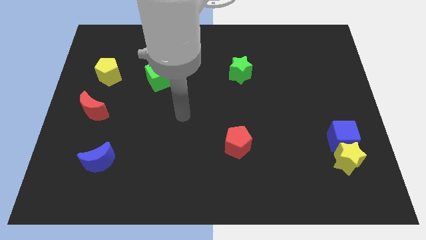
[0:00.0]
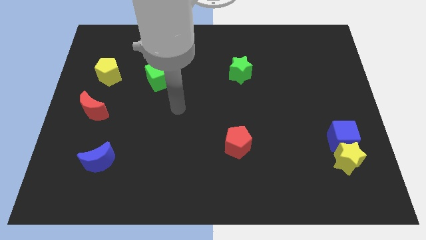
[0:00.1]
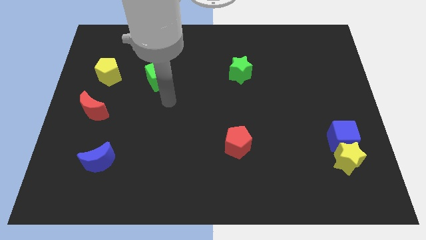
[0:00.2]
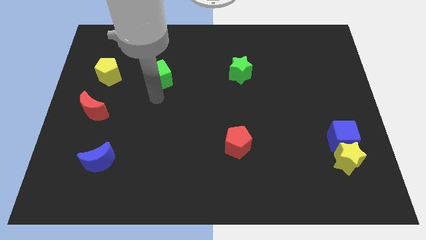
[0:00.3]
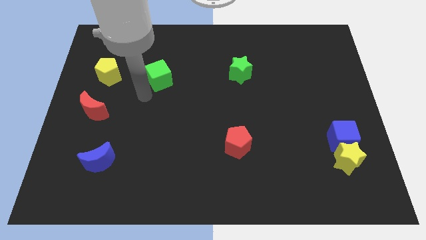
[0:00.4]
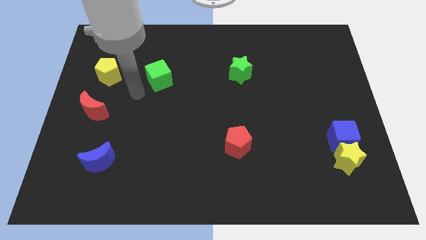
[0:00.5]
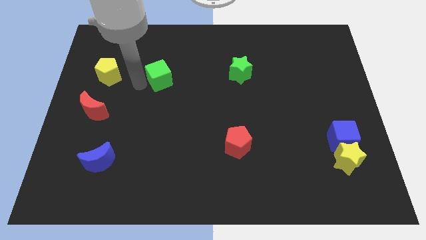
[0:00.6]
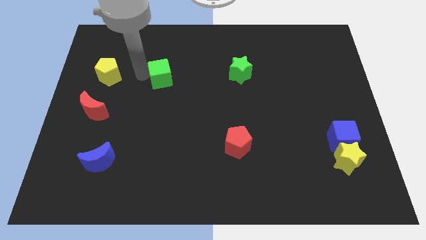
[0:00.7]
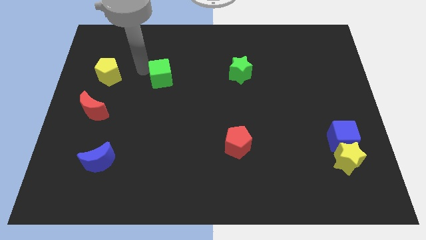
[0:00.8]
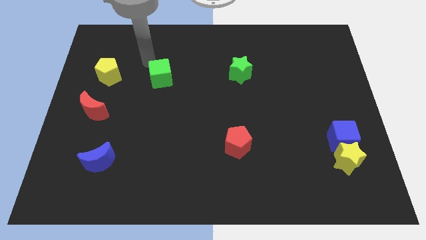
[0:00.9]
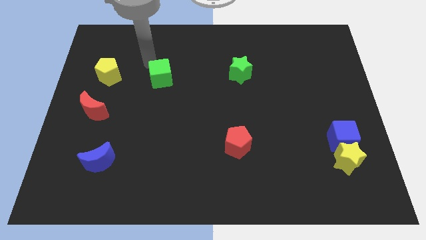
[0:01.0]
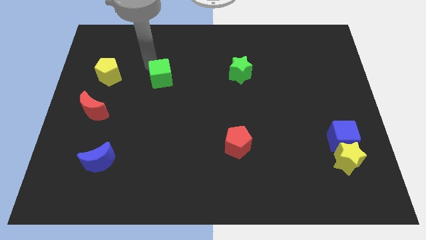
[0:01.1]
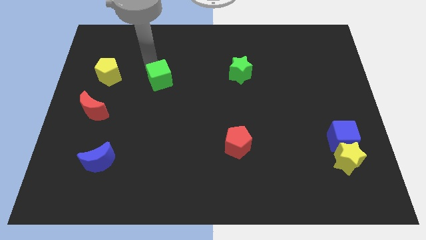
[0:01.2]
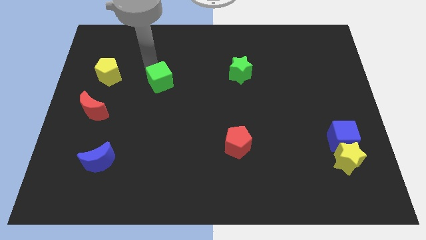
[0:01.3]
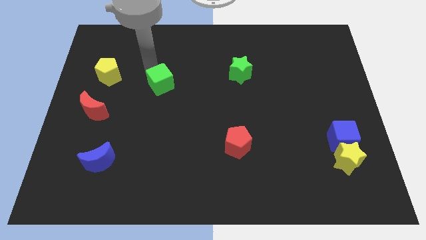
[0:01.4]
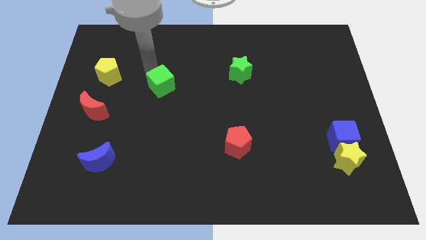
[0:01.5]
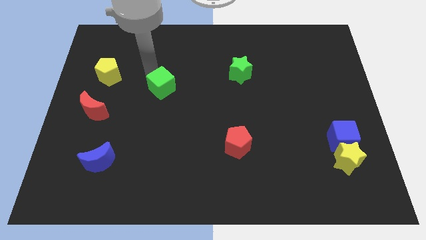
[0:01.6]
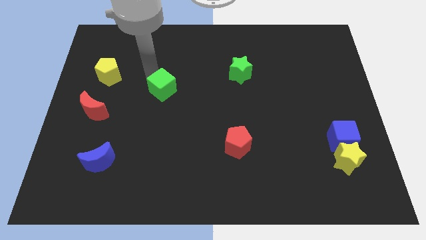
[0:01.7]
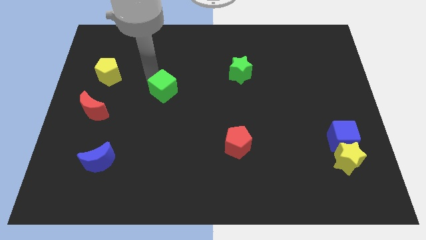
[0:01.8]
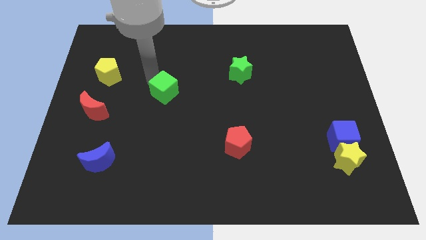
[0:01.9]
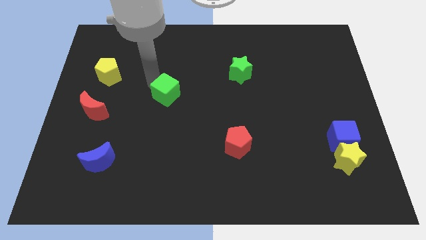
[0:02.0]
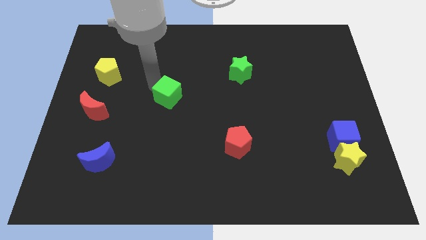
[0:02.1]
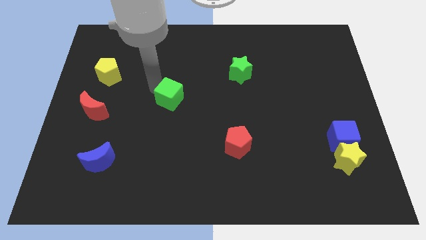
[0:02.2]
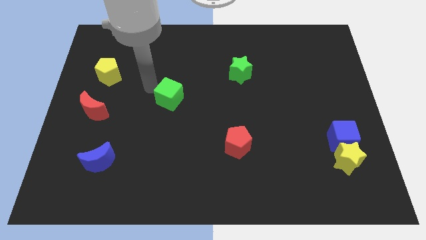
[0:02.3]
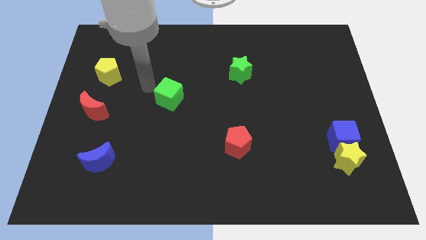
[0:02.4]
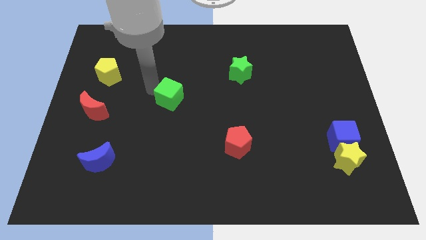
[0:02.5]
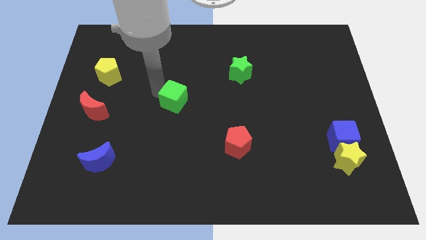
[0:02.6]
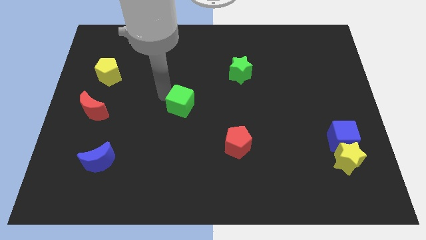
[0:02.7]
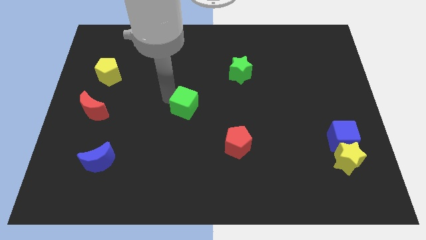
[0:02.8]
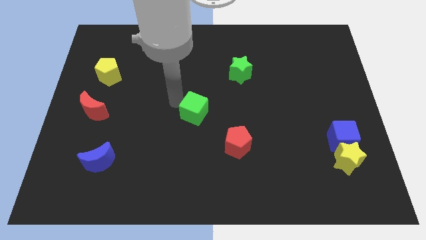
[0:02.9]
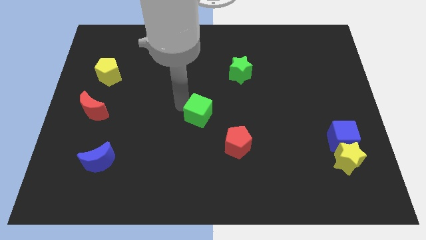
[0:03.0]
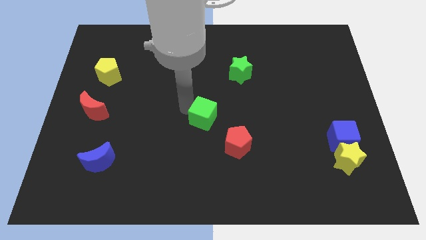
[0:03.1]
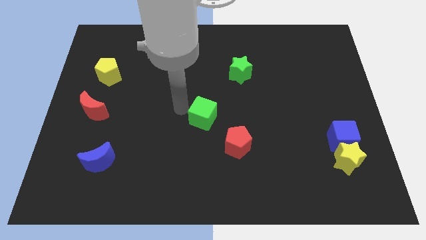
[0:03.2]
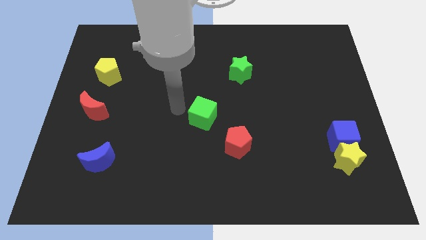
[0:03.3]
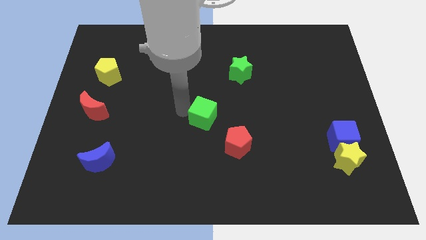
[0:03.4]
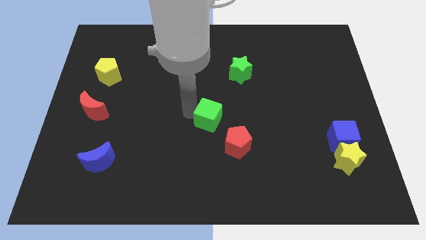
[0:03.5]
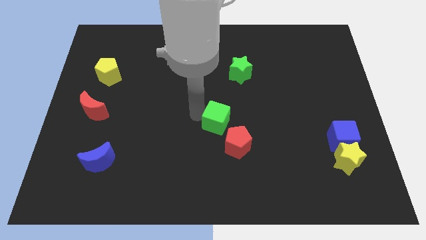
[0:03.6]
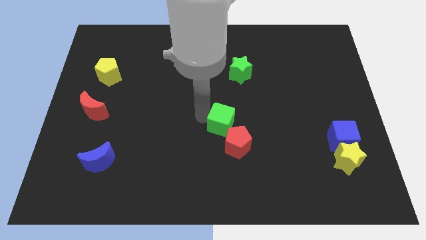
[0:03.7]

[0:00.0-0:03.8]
push the green cube down and right

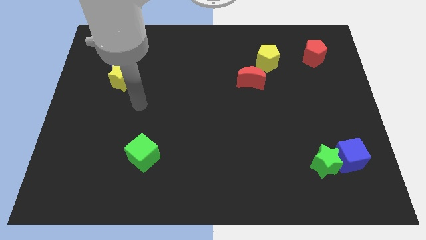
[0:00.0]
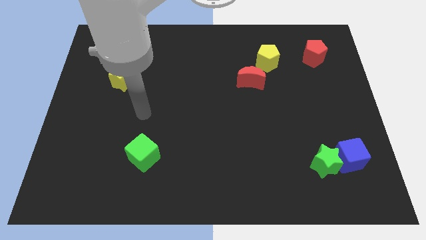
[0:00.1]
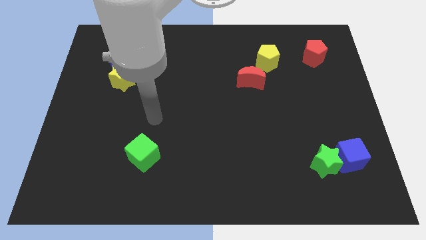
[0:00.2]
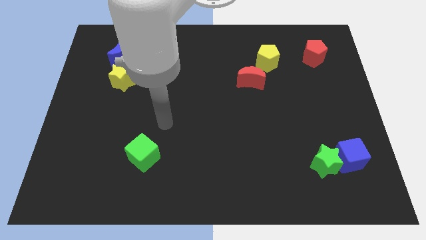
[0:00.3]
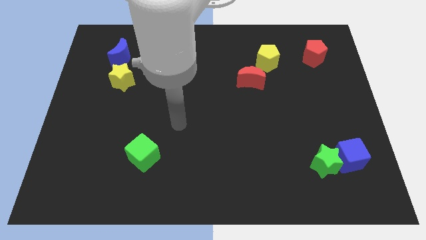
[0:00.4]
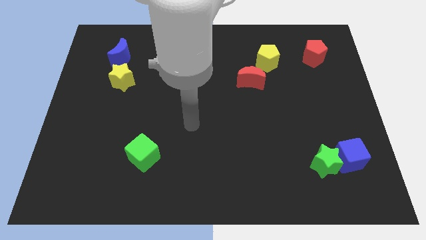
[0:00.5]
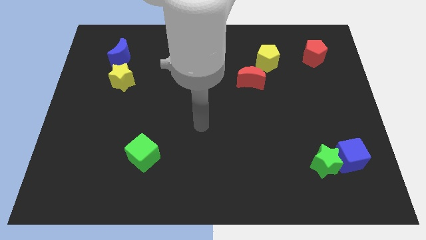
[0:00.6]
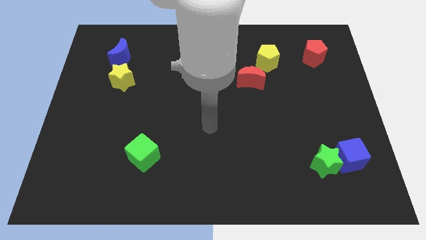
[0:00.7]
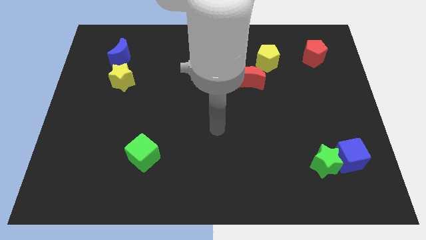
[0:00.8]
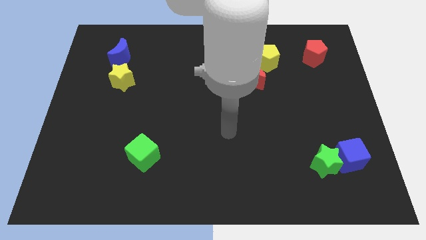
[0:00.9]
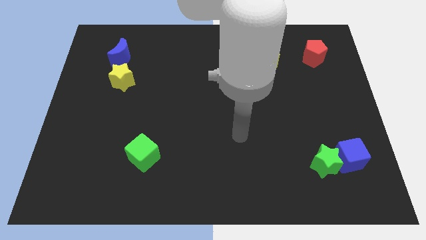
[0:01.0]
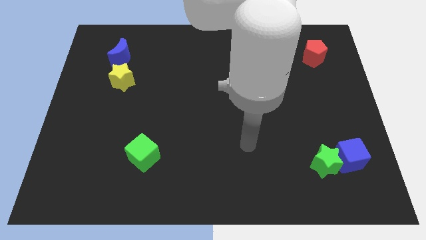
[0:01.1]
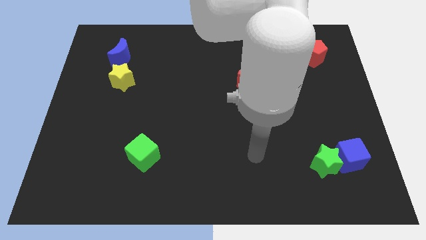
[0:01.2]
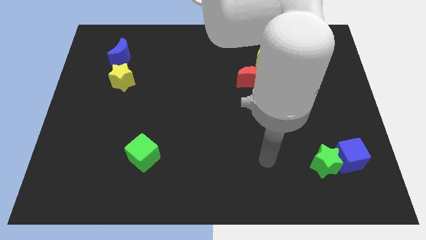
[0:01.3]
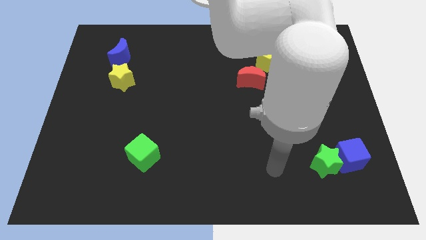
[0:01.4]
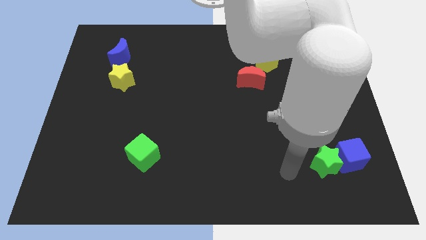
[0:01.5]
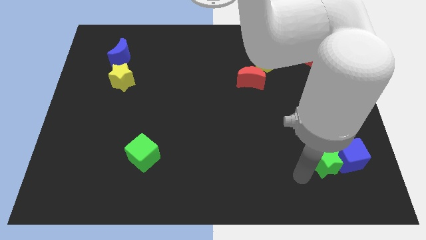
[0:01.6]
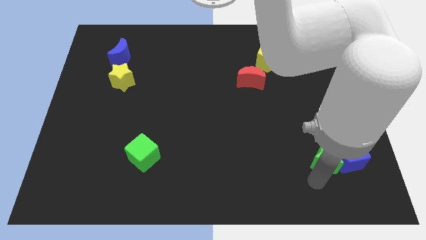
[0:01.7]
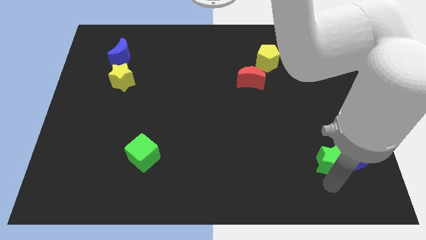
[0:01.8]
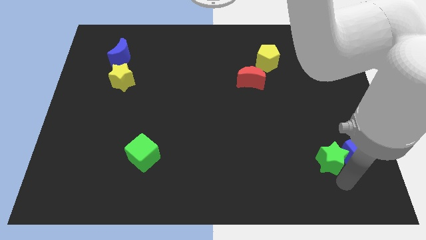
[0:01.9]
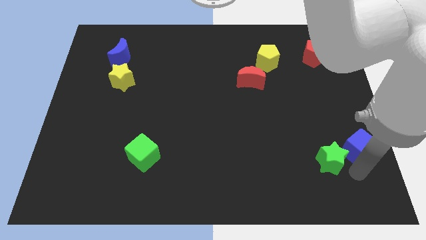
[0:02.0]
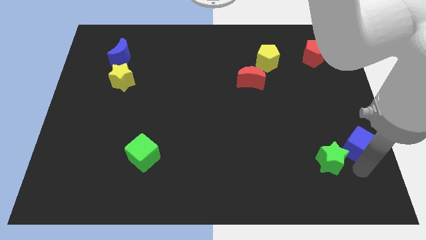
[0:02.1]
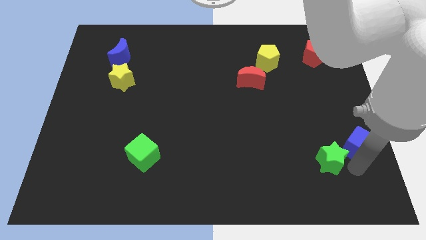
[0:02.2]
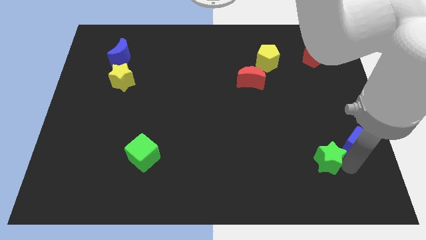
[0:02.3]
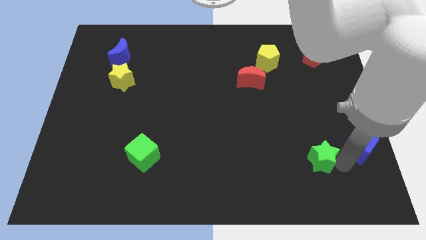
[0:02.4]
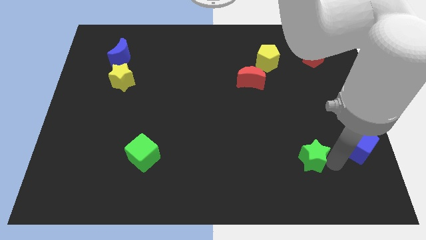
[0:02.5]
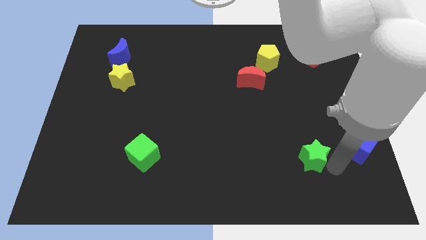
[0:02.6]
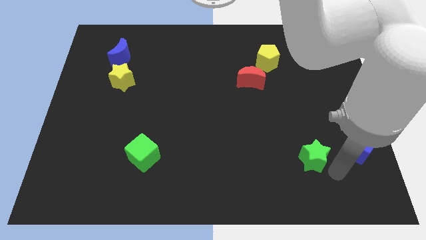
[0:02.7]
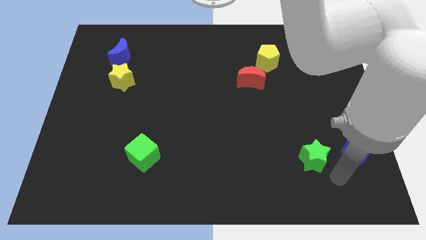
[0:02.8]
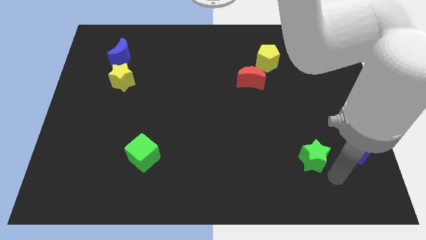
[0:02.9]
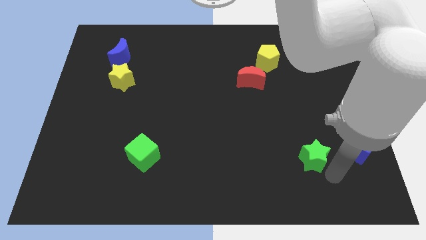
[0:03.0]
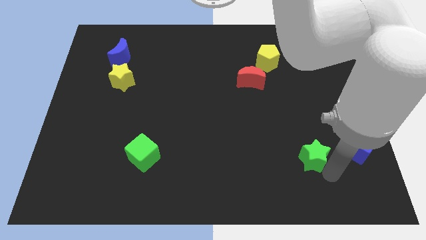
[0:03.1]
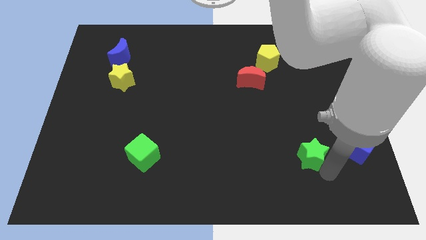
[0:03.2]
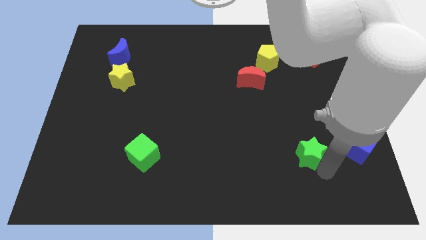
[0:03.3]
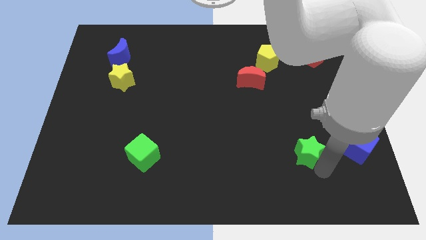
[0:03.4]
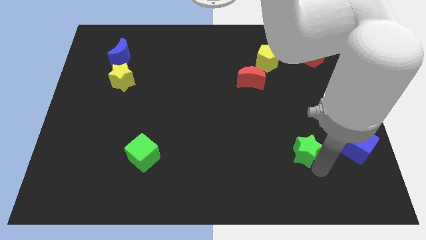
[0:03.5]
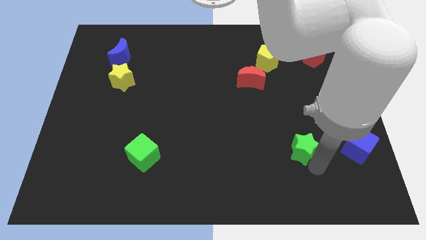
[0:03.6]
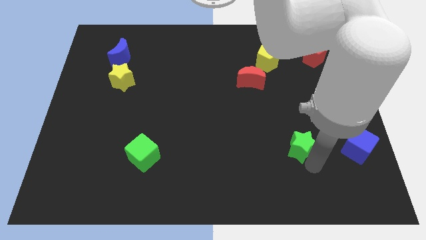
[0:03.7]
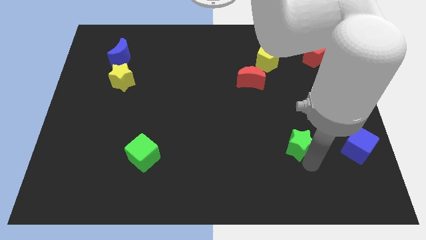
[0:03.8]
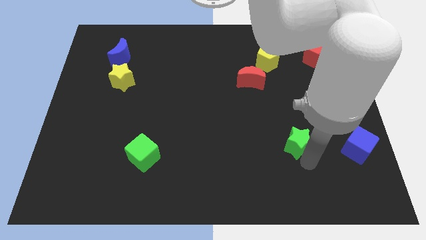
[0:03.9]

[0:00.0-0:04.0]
move the green star somewhat up and left diagonally

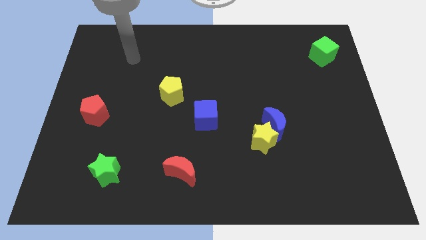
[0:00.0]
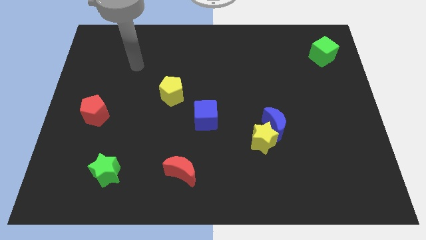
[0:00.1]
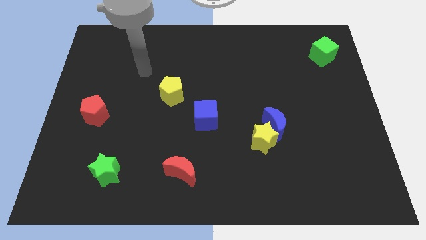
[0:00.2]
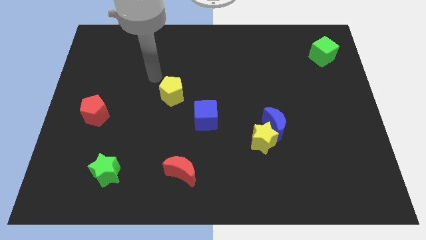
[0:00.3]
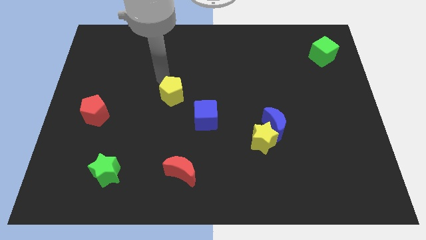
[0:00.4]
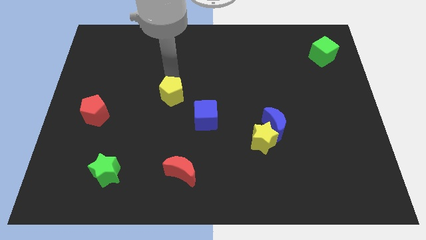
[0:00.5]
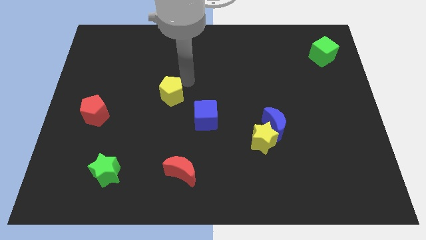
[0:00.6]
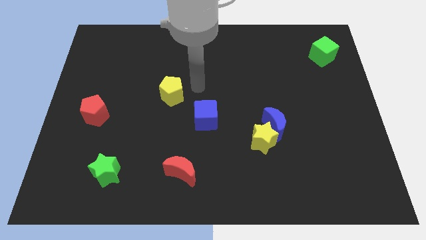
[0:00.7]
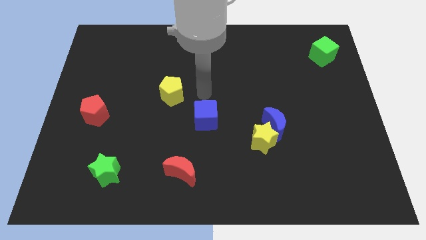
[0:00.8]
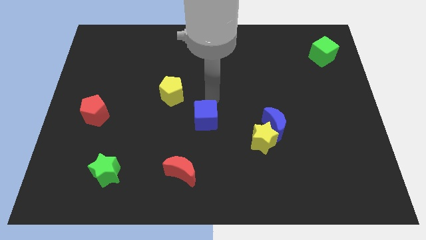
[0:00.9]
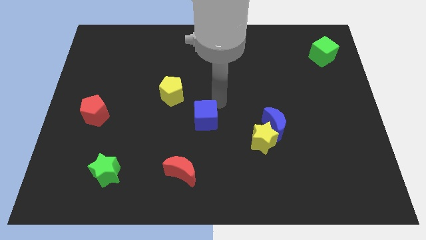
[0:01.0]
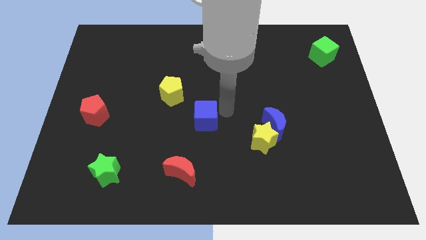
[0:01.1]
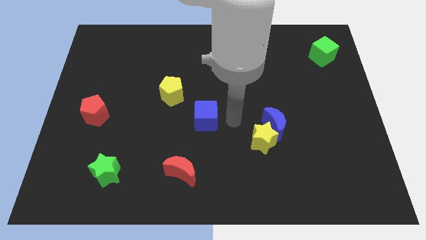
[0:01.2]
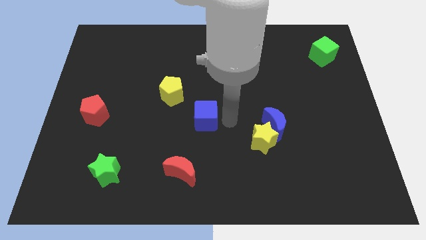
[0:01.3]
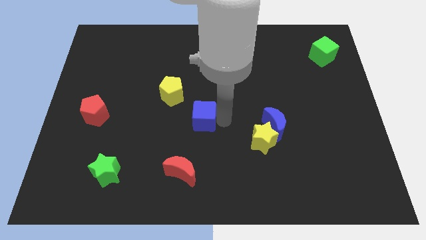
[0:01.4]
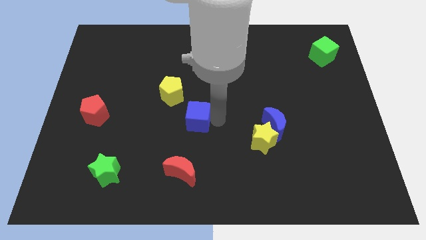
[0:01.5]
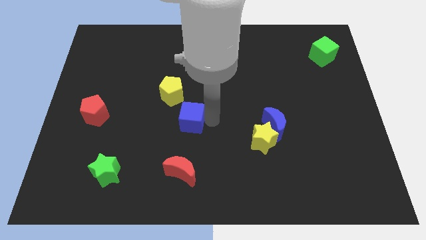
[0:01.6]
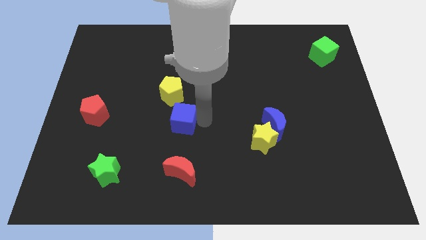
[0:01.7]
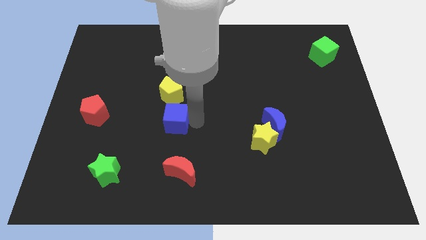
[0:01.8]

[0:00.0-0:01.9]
push the blue cube a little left
